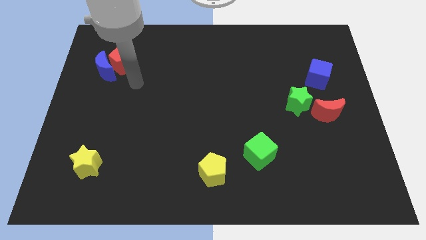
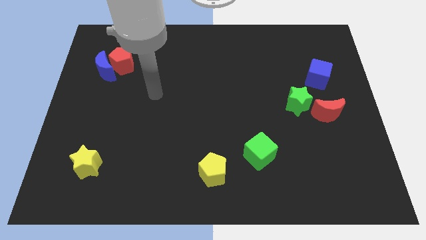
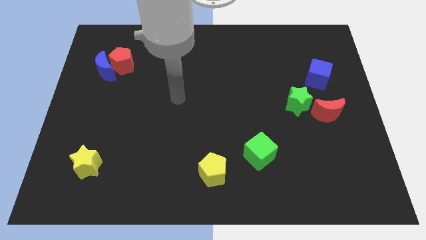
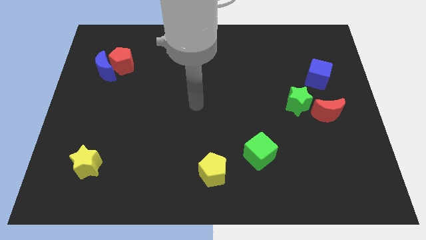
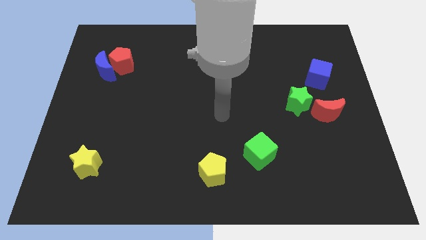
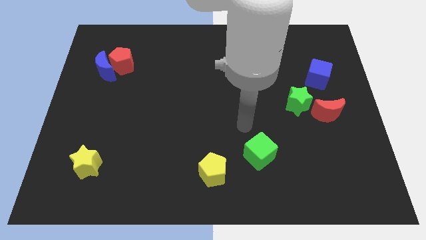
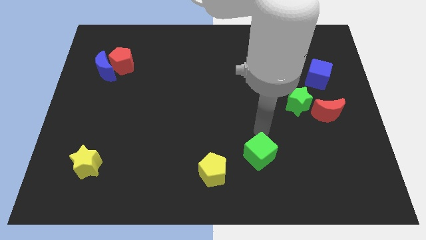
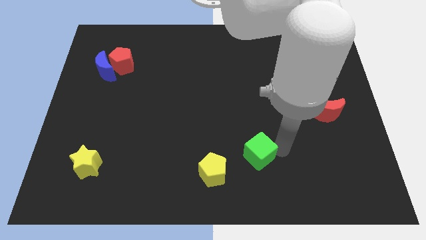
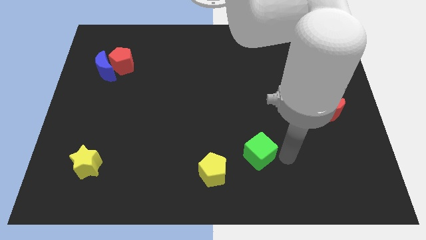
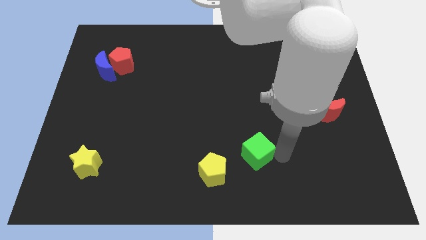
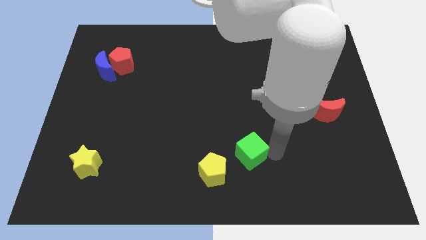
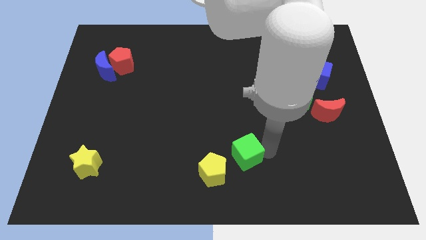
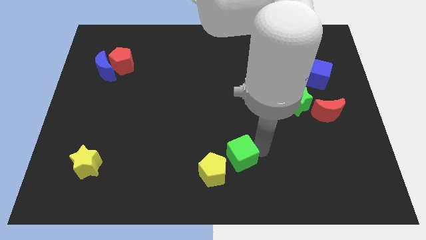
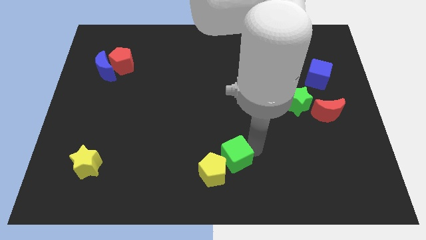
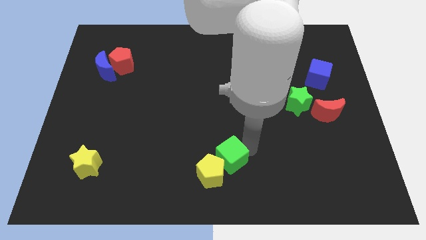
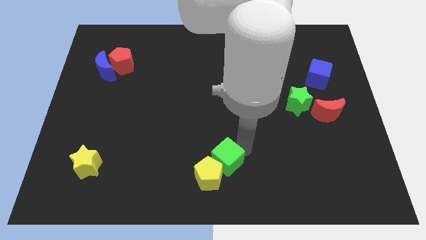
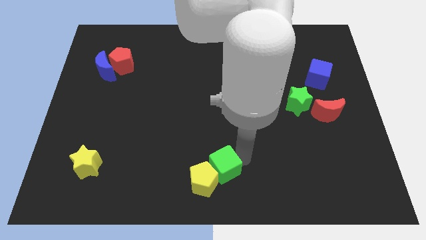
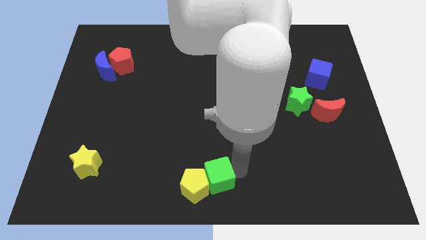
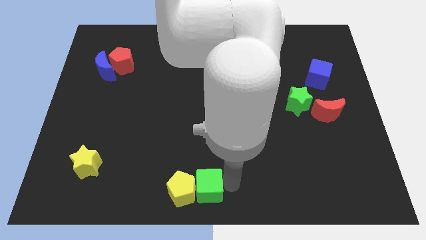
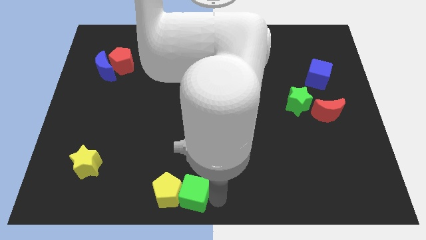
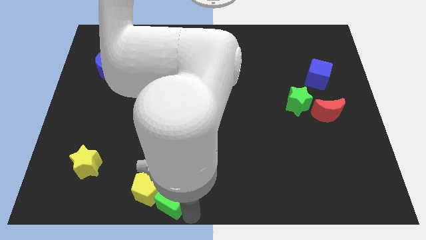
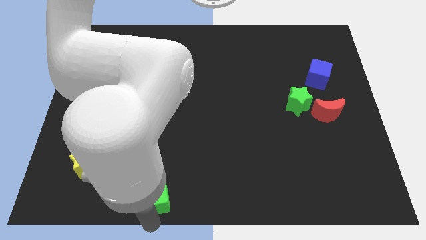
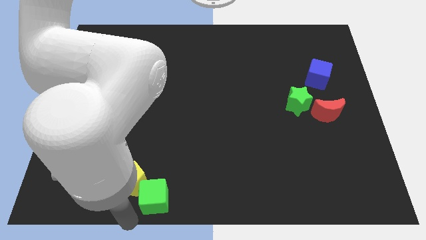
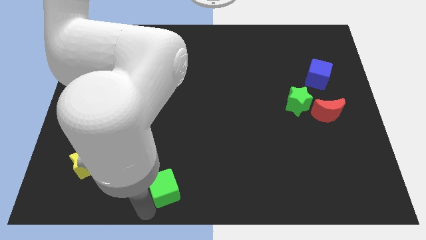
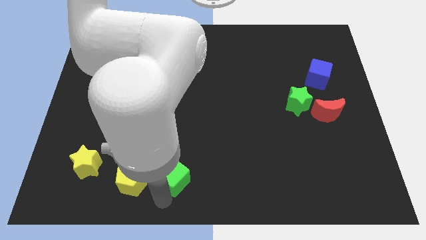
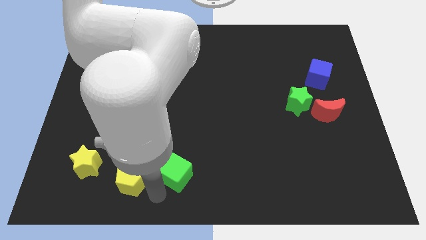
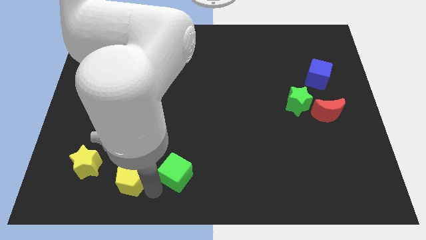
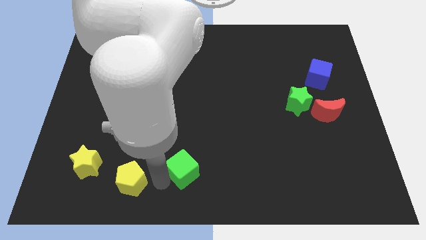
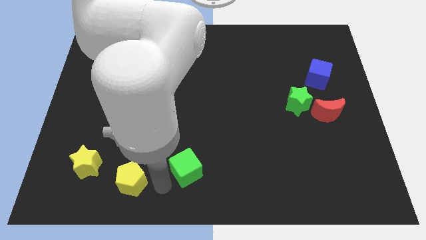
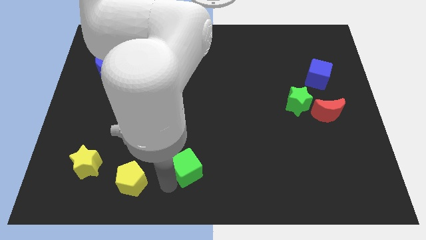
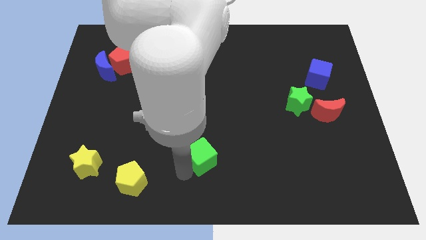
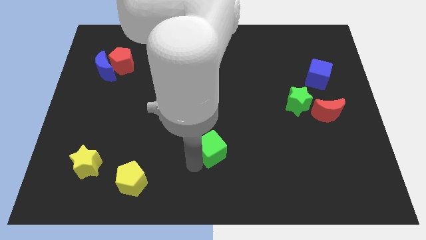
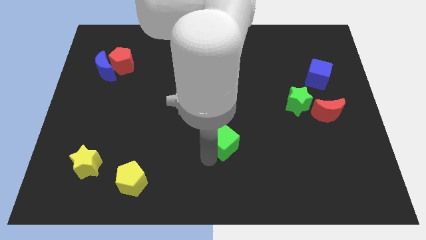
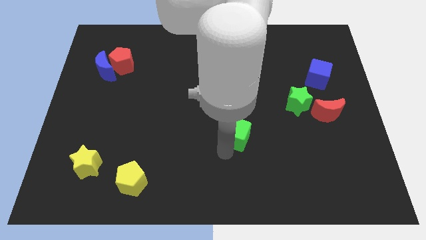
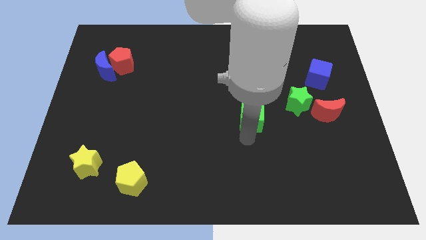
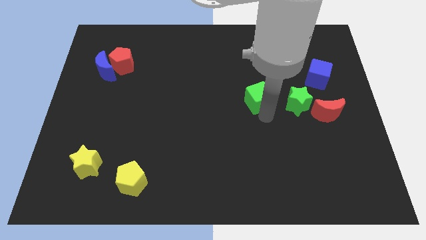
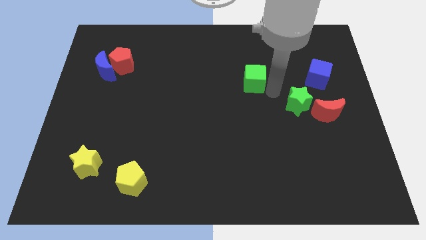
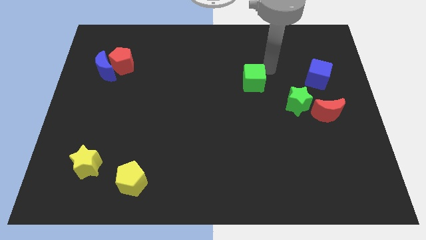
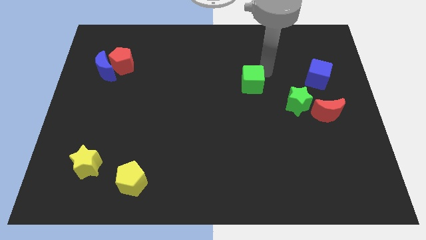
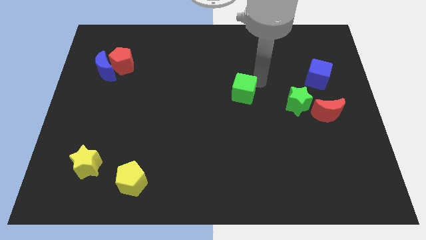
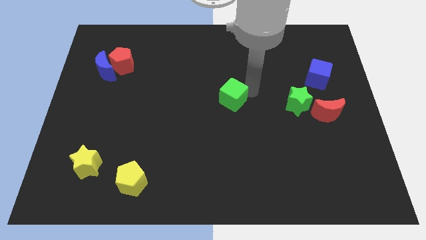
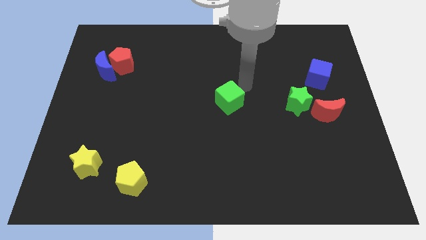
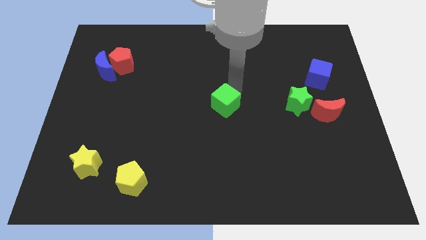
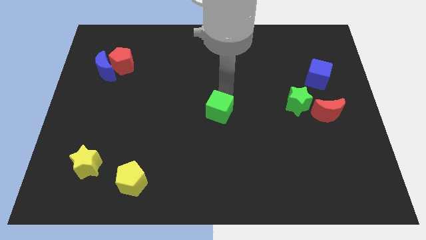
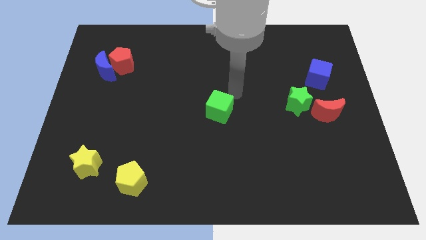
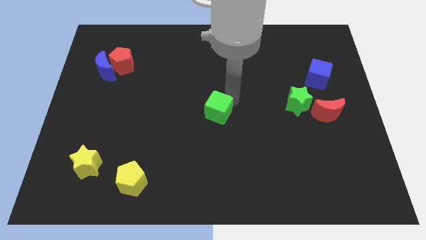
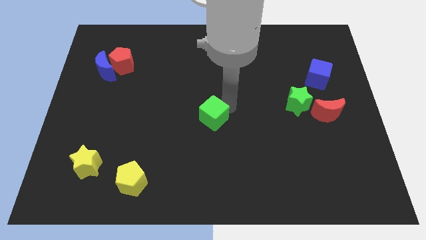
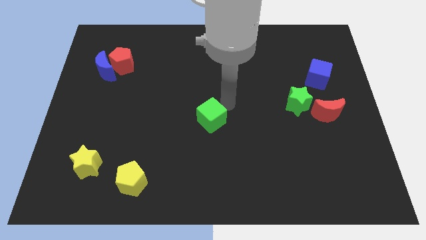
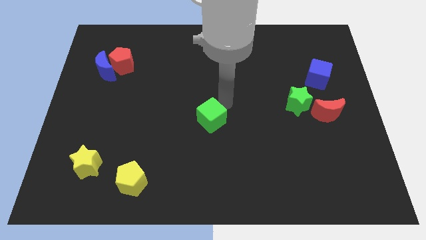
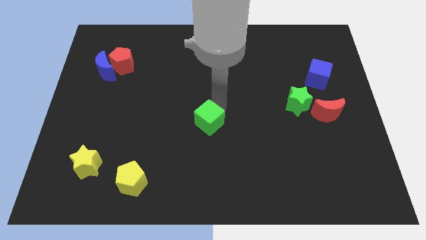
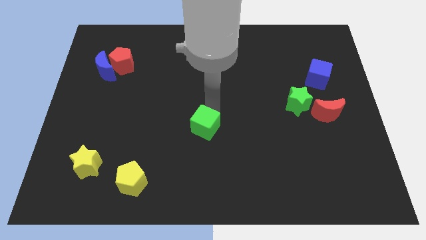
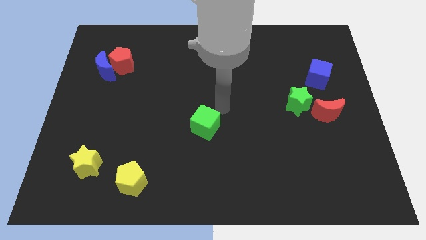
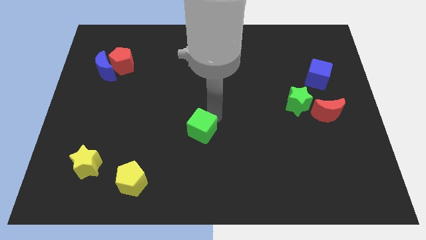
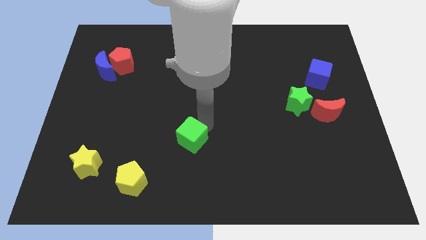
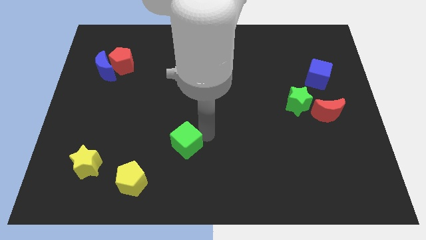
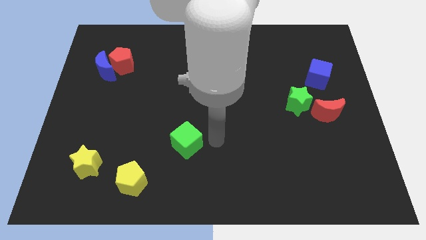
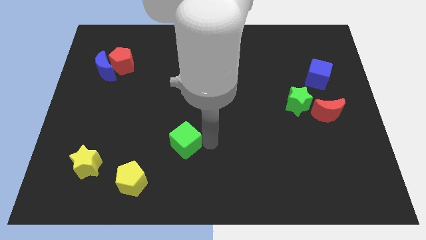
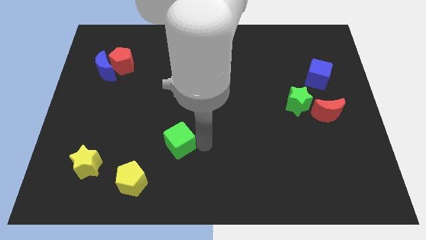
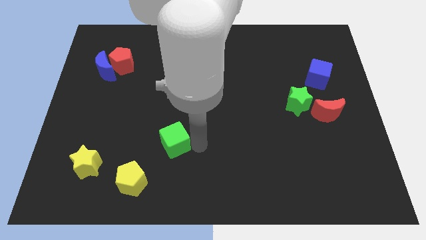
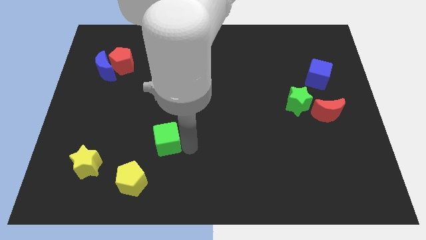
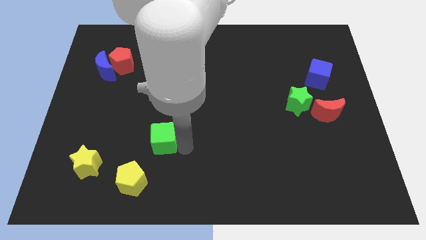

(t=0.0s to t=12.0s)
move the green cube left

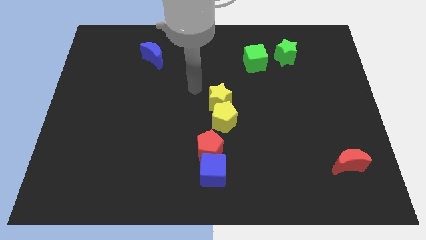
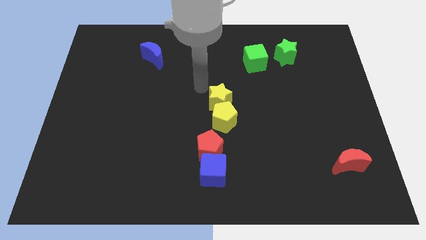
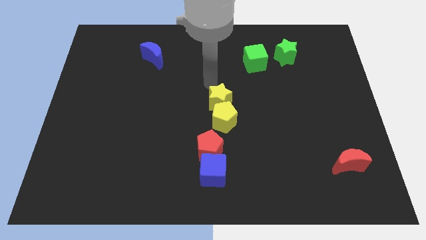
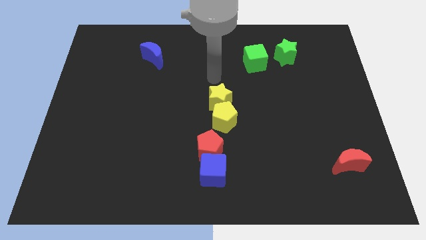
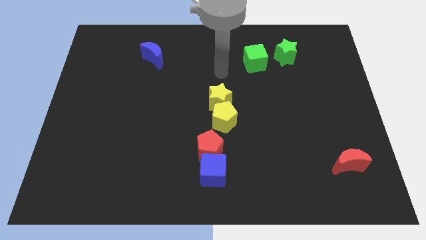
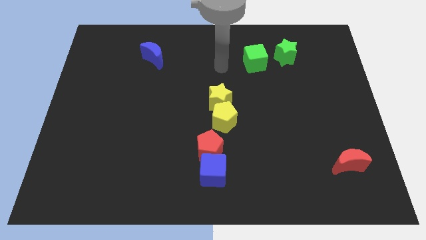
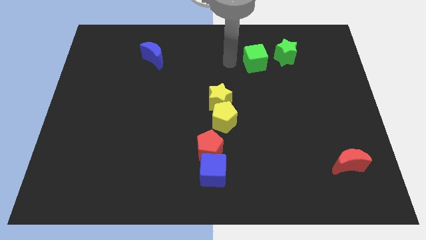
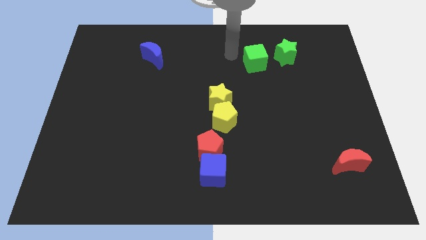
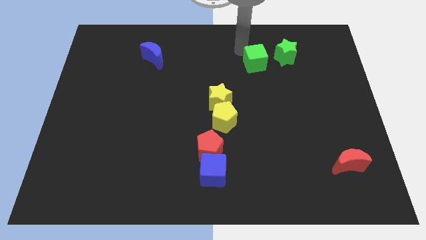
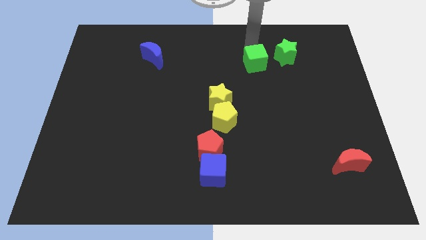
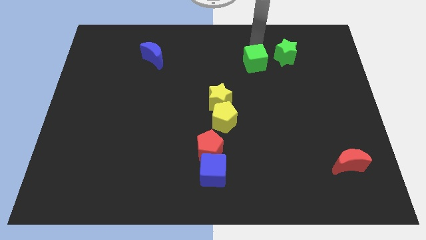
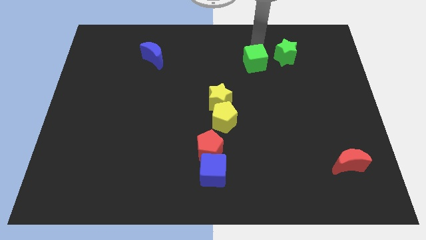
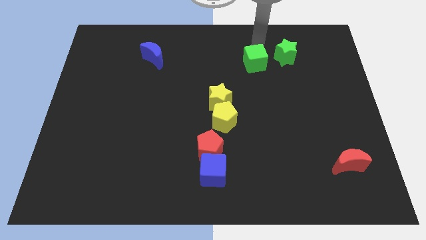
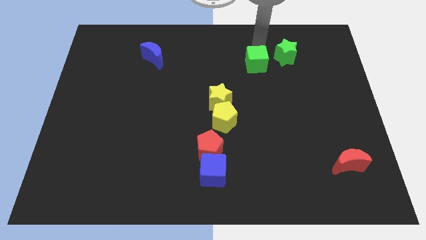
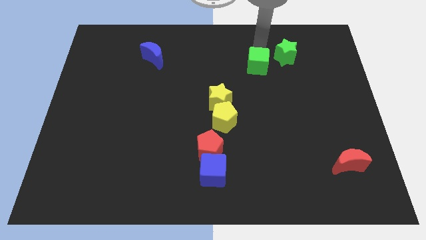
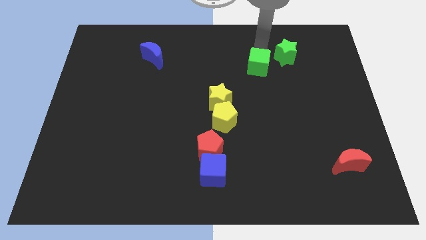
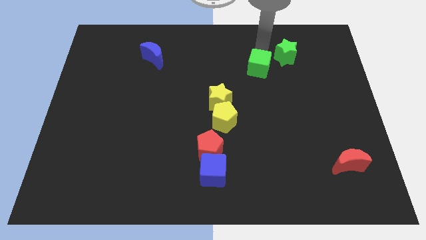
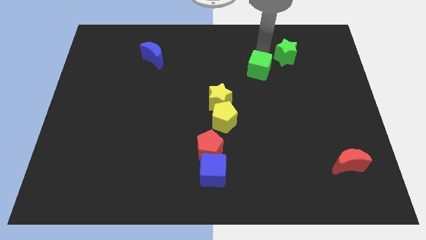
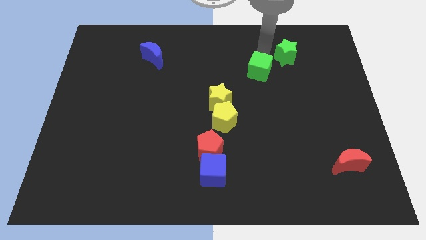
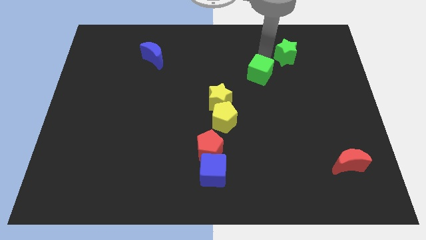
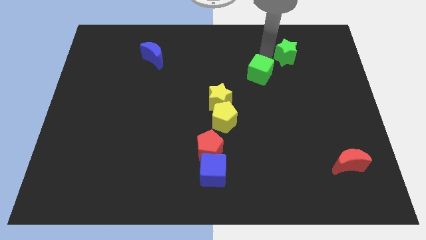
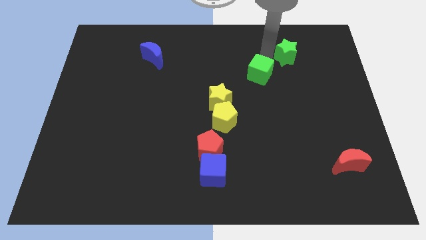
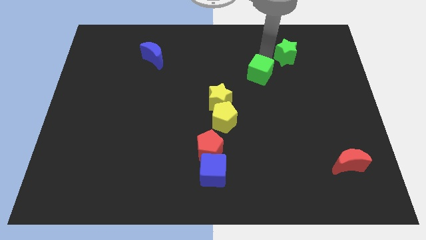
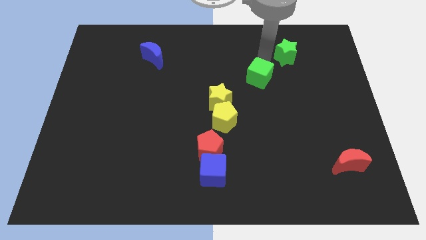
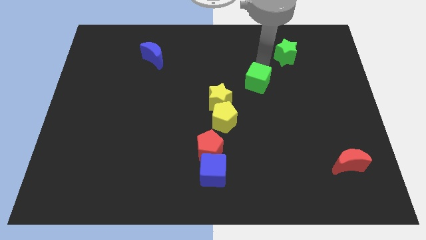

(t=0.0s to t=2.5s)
slide the green cube downwards somewhat
